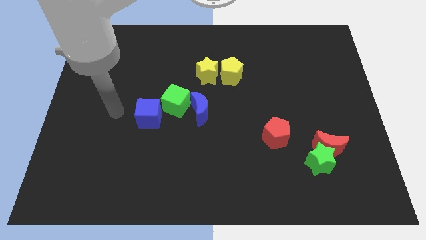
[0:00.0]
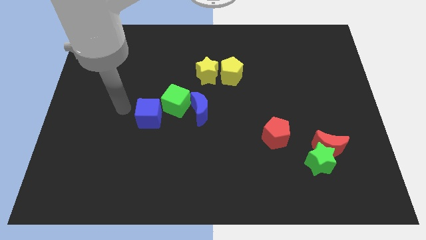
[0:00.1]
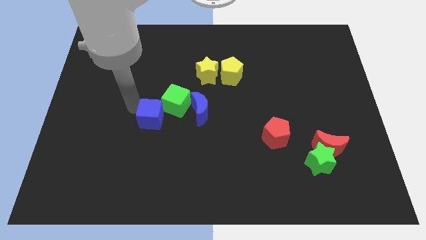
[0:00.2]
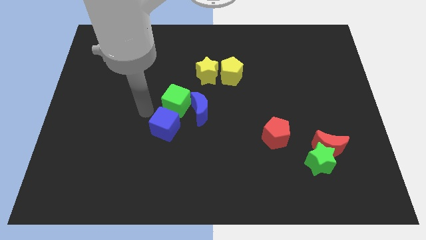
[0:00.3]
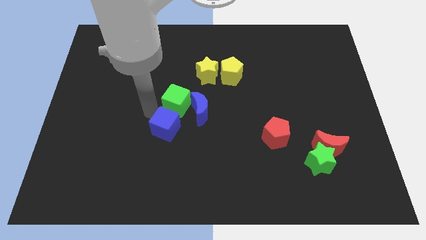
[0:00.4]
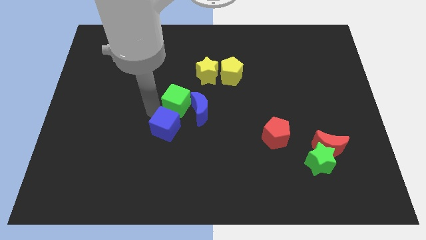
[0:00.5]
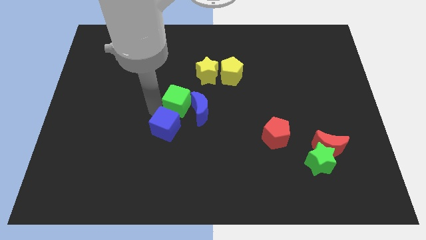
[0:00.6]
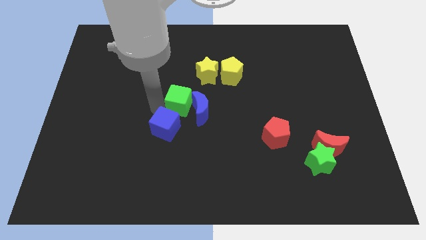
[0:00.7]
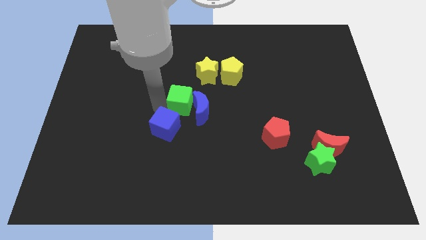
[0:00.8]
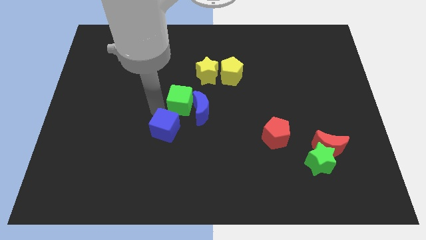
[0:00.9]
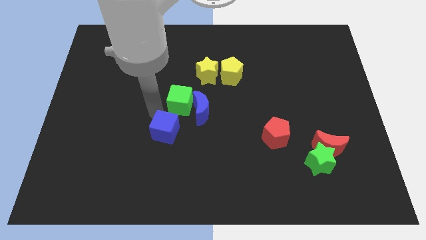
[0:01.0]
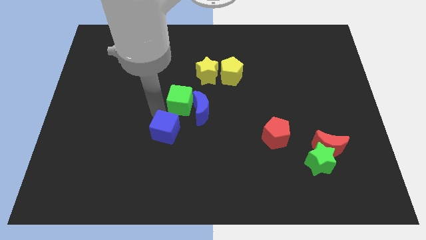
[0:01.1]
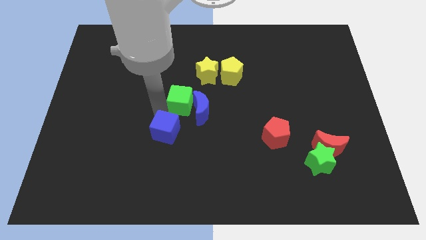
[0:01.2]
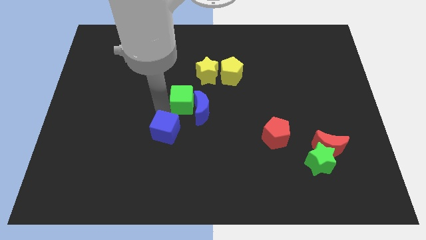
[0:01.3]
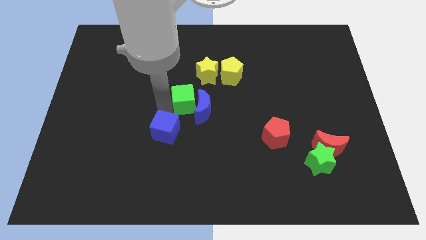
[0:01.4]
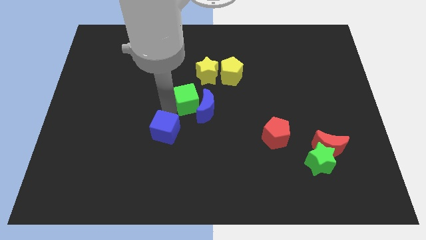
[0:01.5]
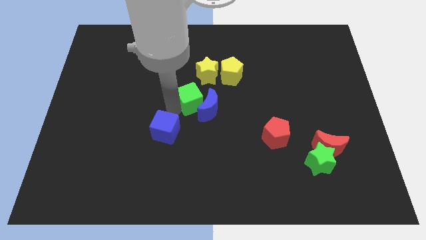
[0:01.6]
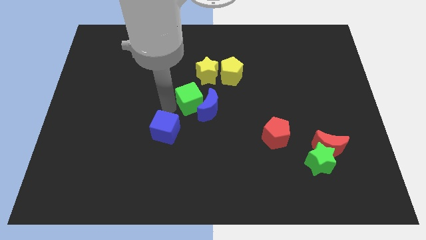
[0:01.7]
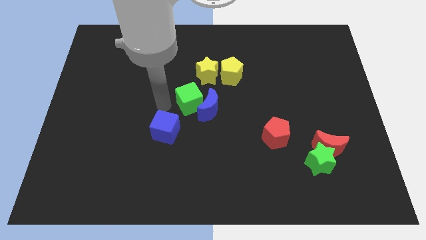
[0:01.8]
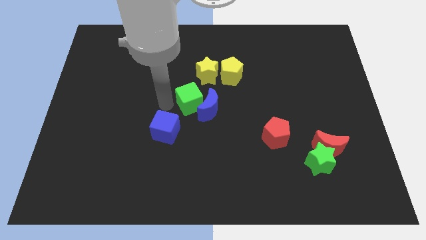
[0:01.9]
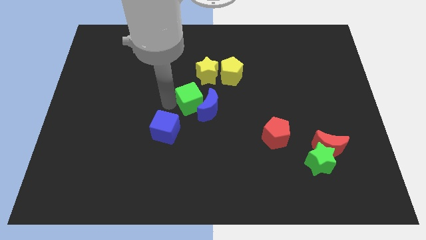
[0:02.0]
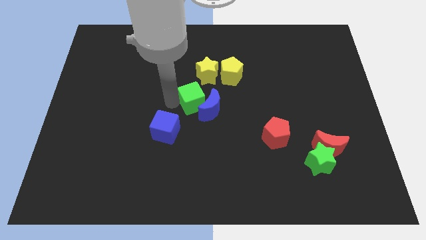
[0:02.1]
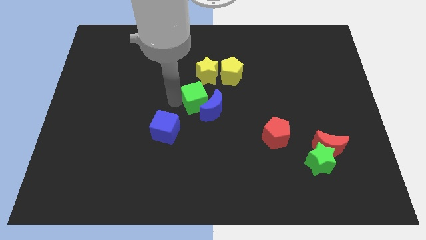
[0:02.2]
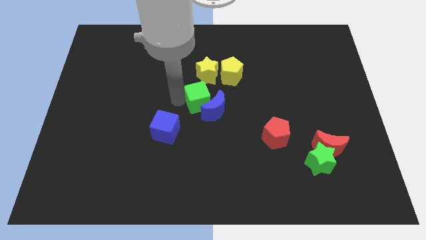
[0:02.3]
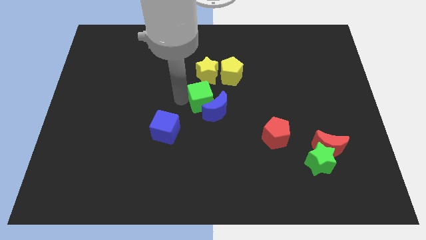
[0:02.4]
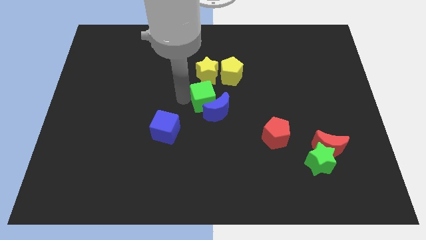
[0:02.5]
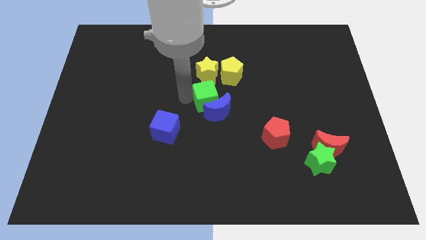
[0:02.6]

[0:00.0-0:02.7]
slightly push the green cube to the right

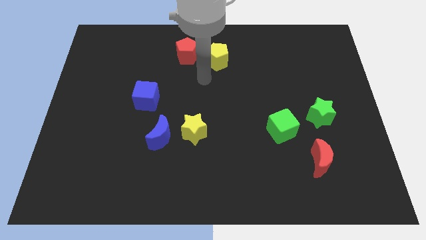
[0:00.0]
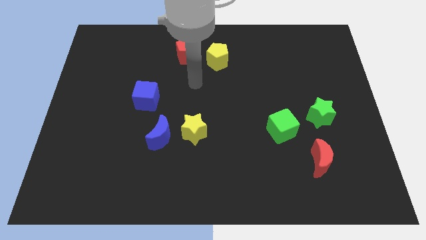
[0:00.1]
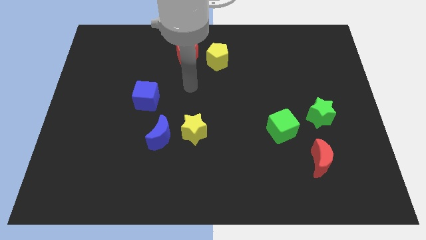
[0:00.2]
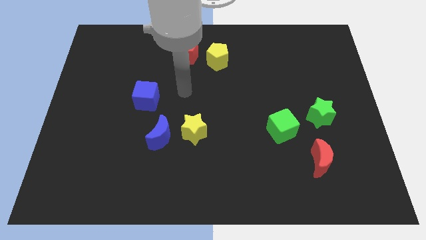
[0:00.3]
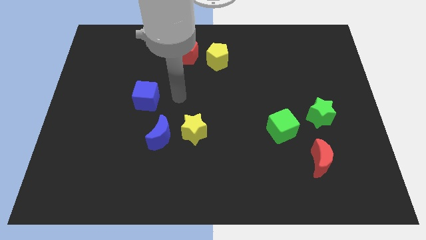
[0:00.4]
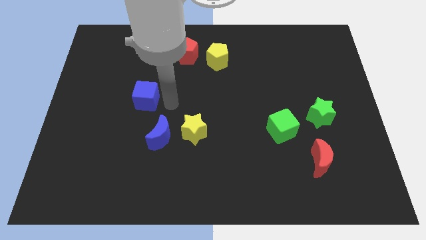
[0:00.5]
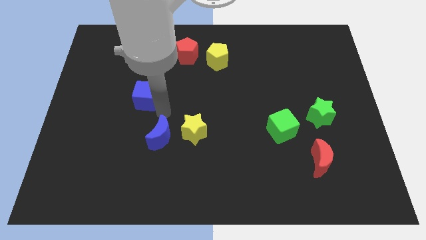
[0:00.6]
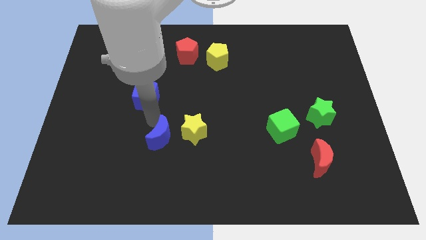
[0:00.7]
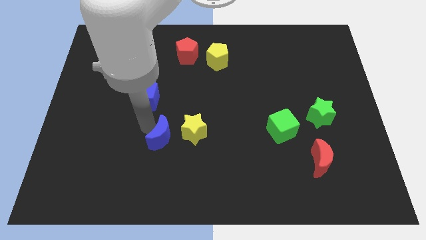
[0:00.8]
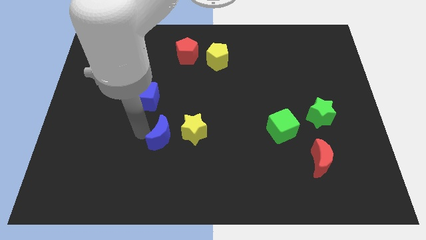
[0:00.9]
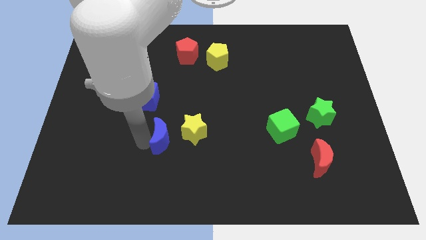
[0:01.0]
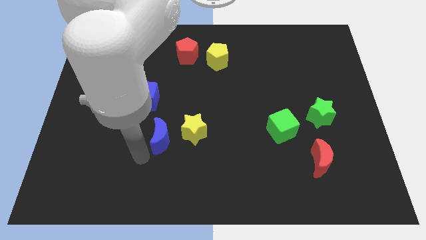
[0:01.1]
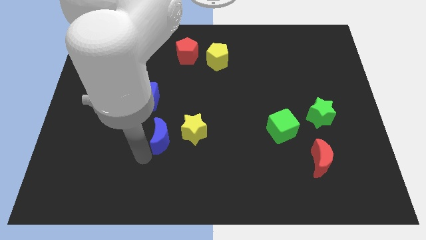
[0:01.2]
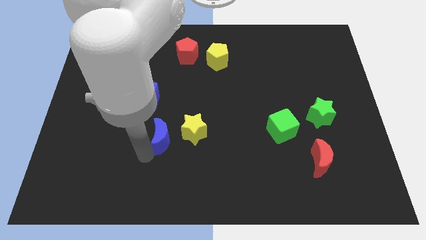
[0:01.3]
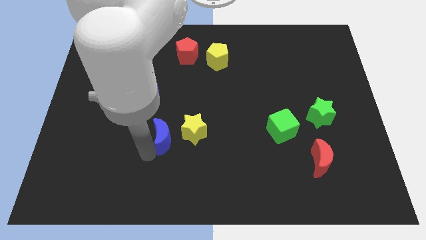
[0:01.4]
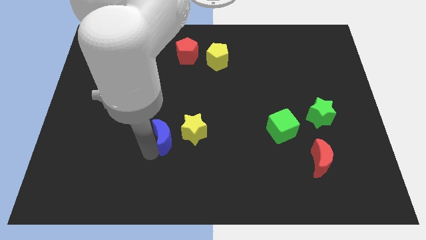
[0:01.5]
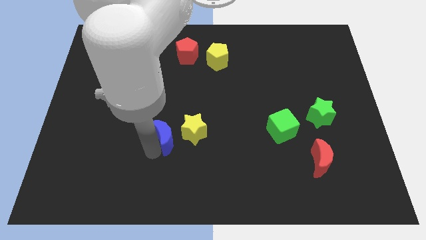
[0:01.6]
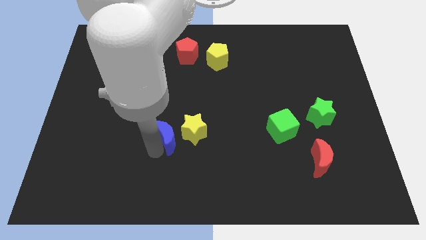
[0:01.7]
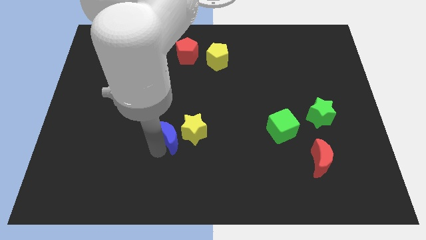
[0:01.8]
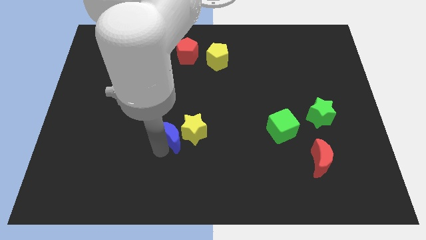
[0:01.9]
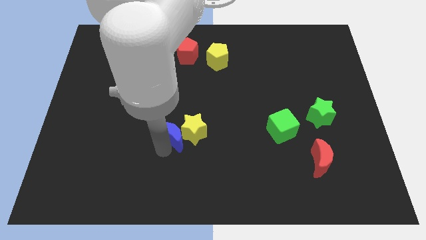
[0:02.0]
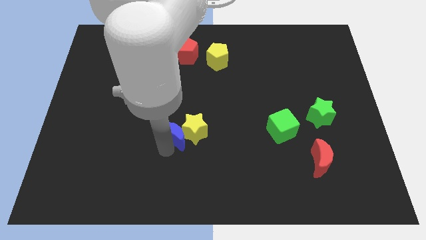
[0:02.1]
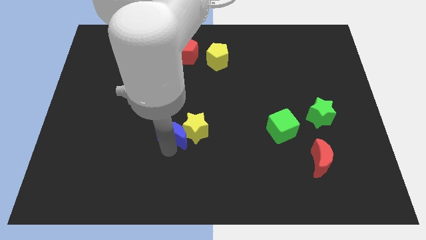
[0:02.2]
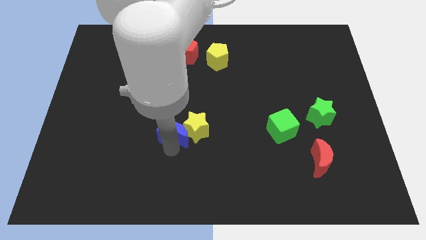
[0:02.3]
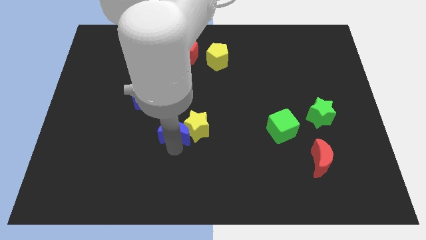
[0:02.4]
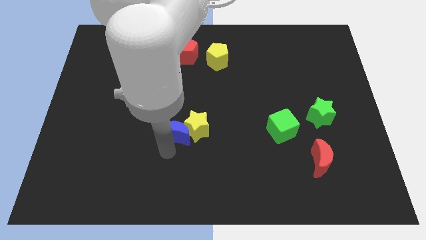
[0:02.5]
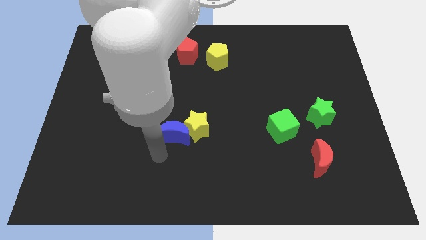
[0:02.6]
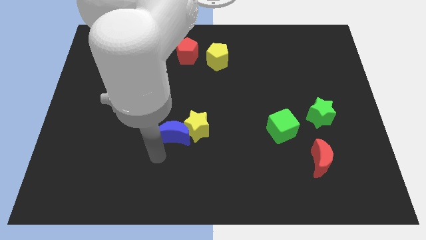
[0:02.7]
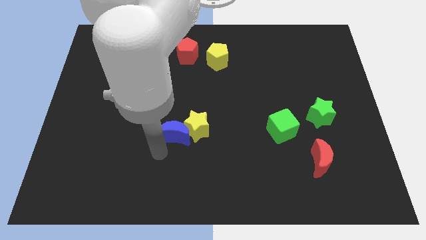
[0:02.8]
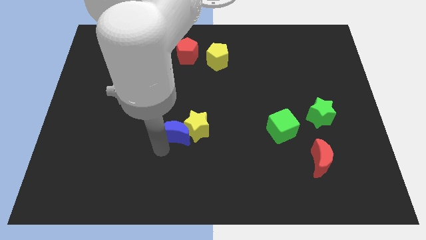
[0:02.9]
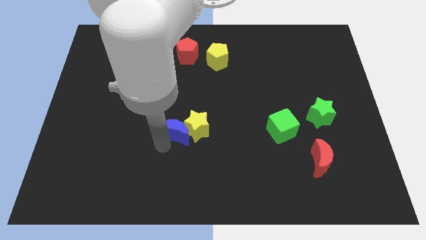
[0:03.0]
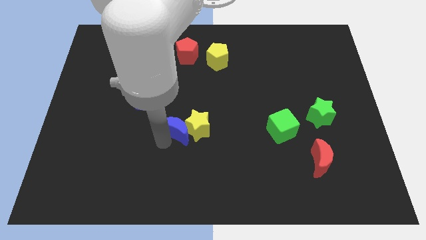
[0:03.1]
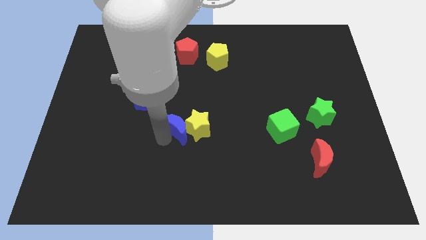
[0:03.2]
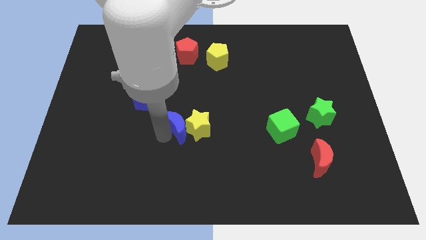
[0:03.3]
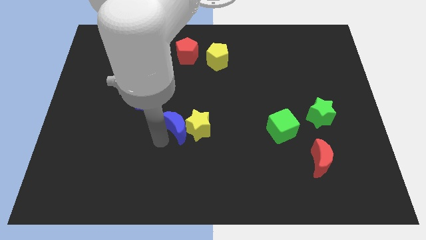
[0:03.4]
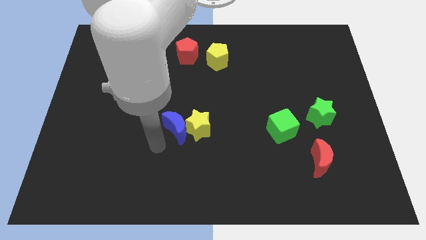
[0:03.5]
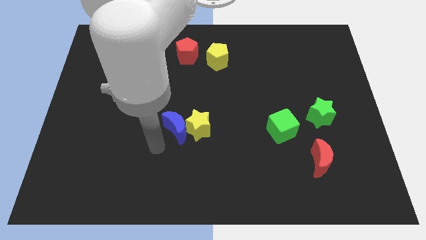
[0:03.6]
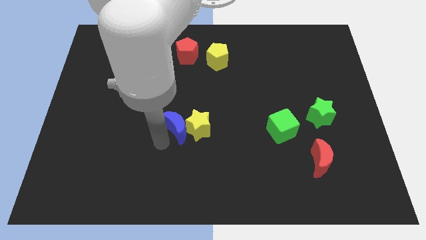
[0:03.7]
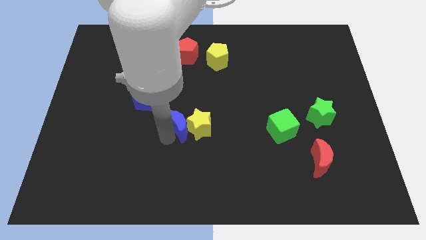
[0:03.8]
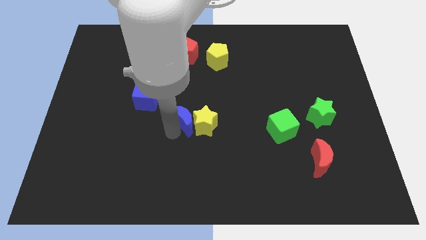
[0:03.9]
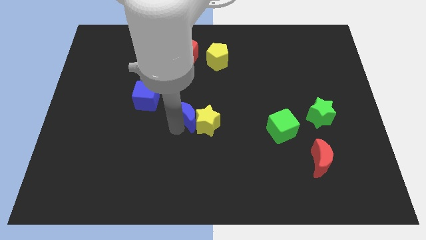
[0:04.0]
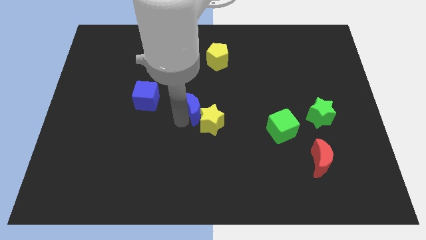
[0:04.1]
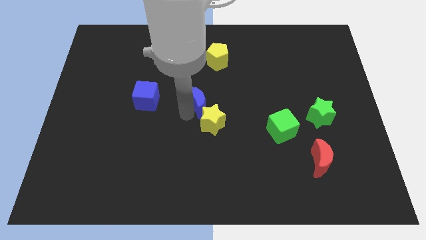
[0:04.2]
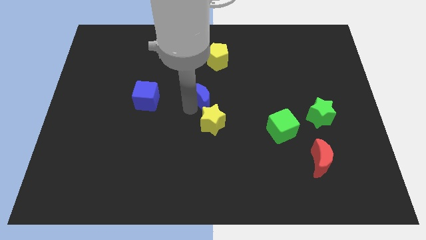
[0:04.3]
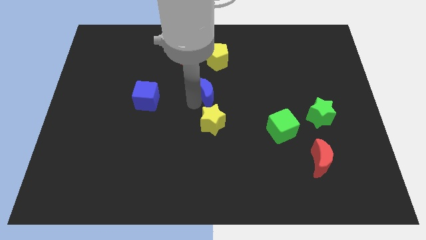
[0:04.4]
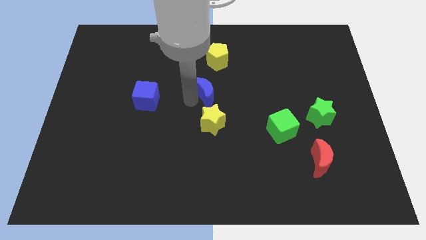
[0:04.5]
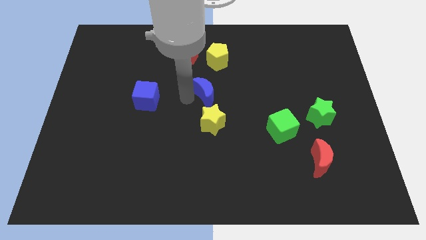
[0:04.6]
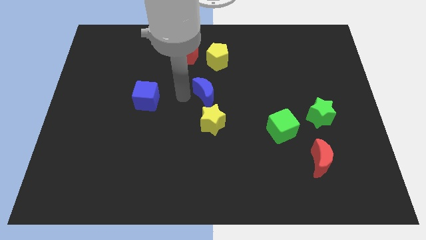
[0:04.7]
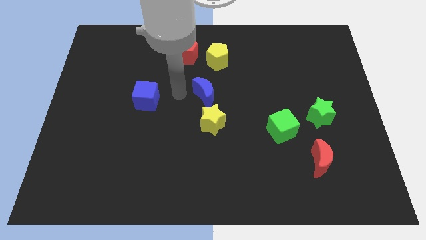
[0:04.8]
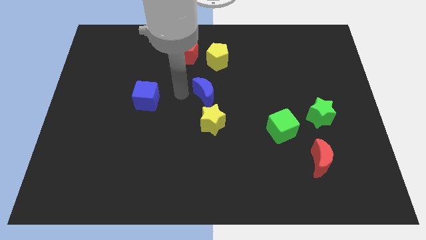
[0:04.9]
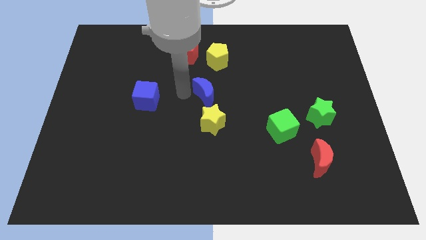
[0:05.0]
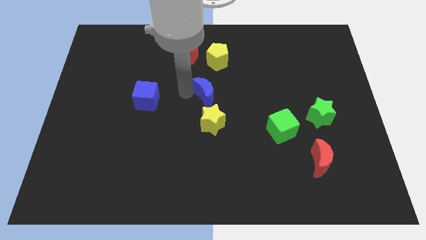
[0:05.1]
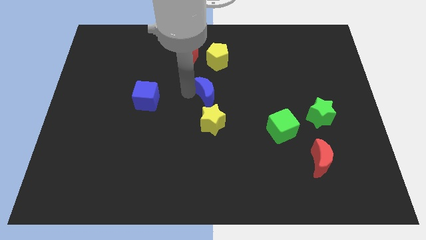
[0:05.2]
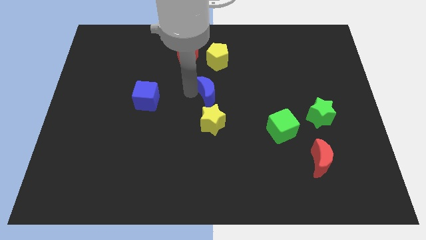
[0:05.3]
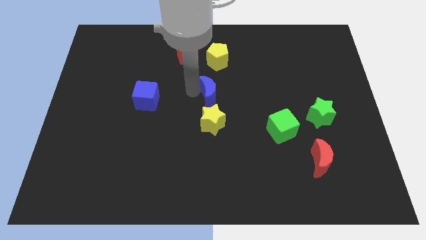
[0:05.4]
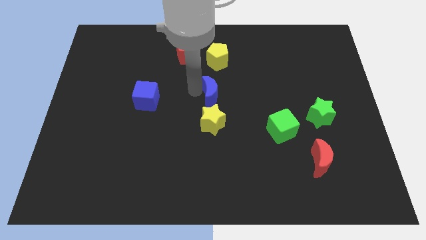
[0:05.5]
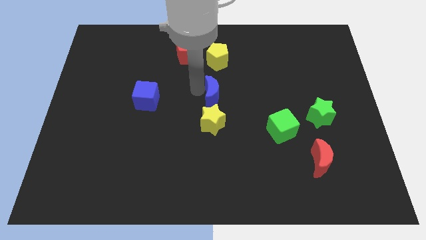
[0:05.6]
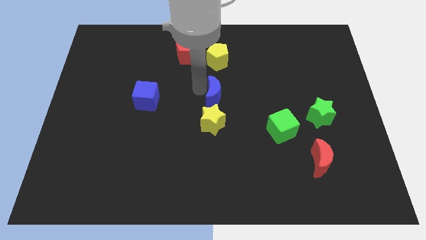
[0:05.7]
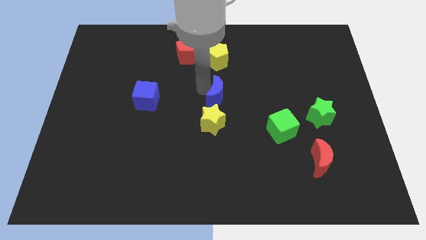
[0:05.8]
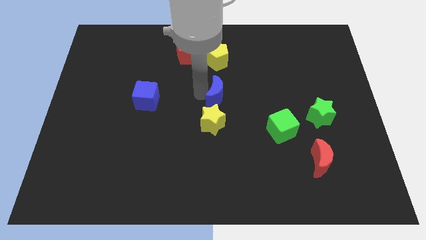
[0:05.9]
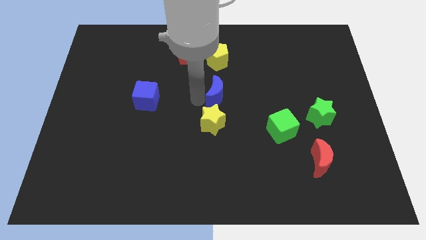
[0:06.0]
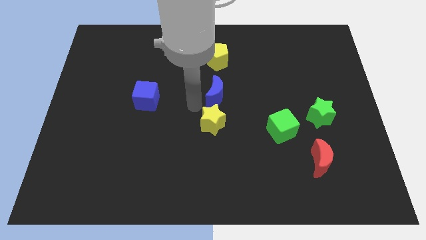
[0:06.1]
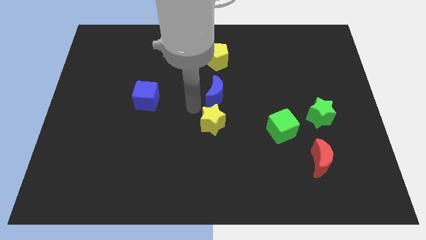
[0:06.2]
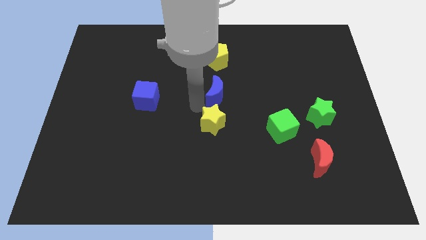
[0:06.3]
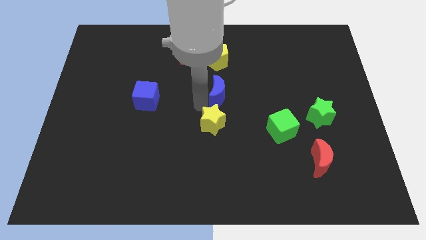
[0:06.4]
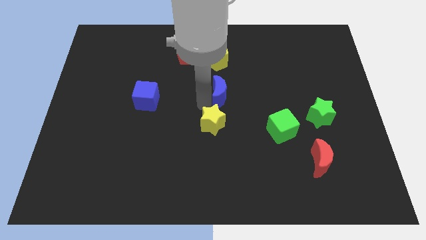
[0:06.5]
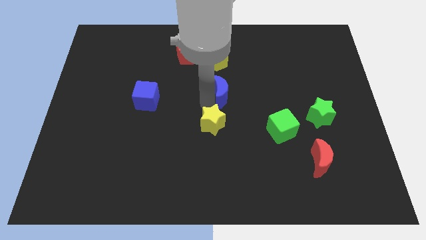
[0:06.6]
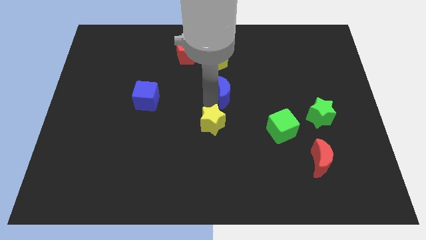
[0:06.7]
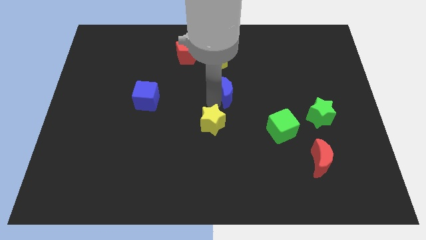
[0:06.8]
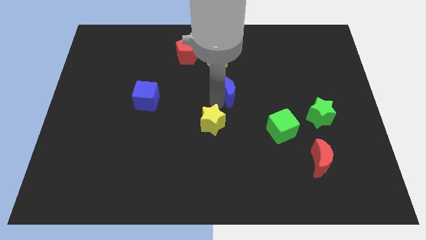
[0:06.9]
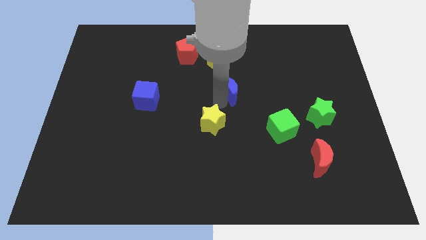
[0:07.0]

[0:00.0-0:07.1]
push the blue moon diagonally up and right
